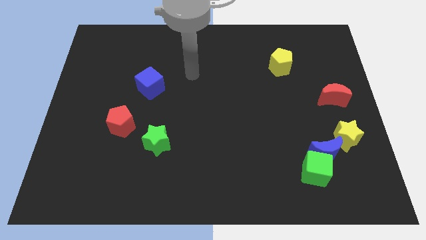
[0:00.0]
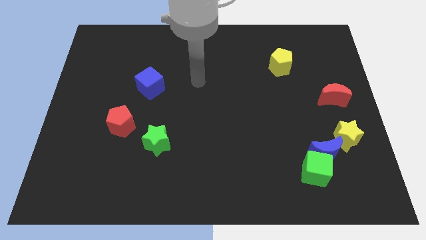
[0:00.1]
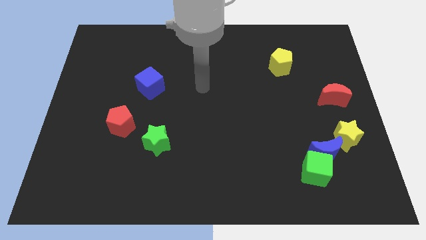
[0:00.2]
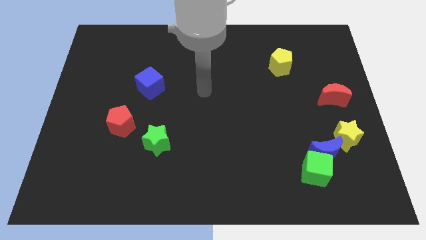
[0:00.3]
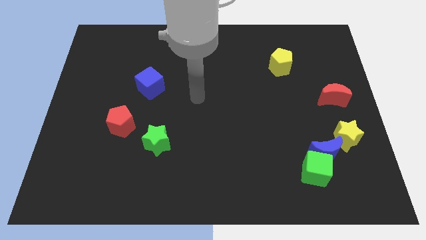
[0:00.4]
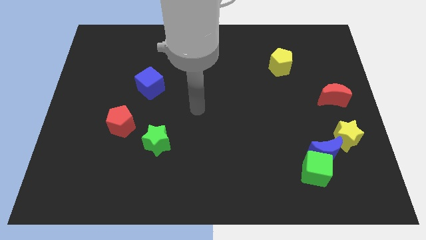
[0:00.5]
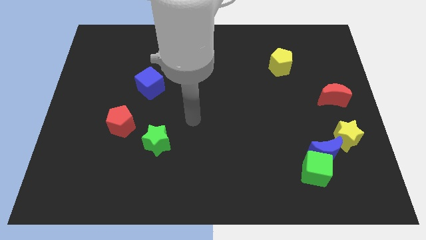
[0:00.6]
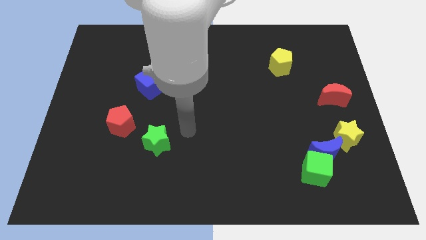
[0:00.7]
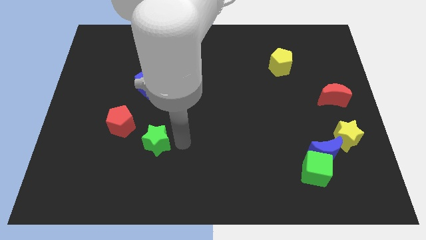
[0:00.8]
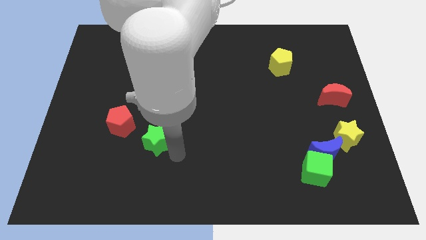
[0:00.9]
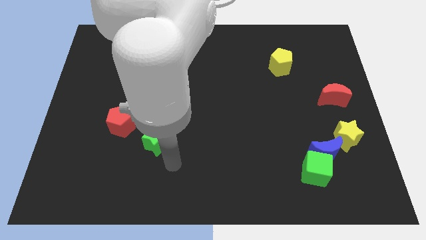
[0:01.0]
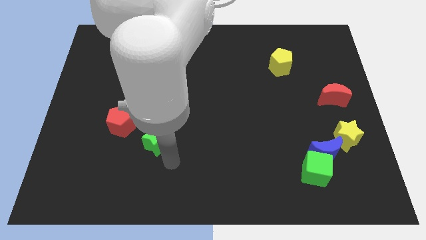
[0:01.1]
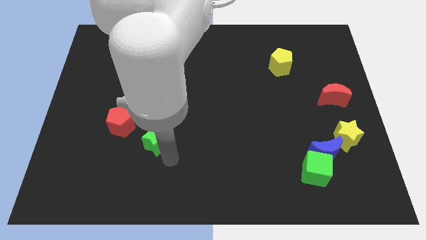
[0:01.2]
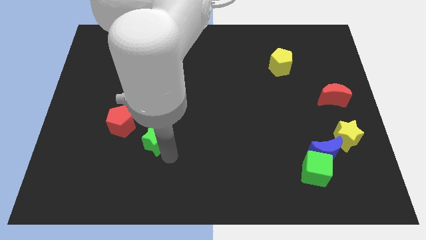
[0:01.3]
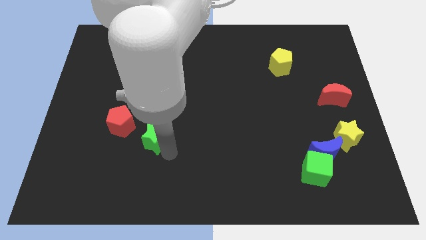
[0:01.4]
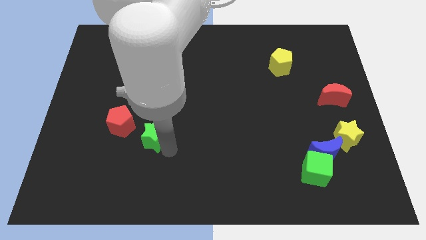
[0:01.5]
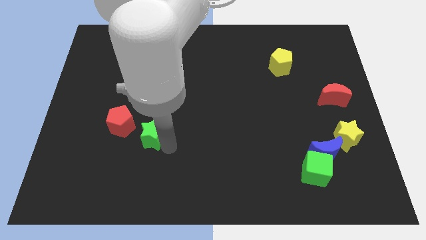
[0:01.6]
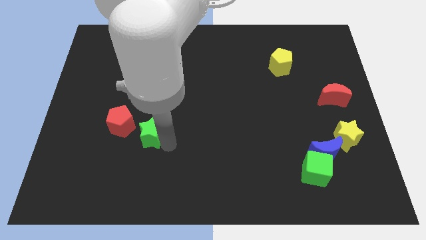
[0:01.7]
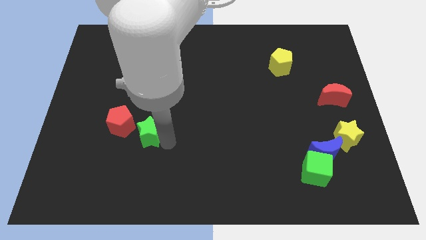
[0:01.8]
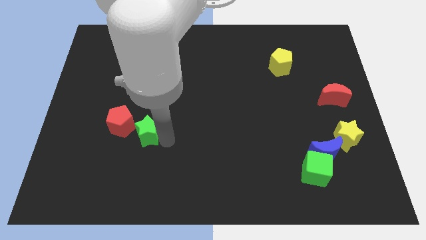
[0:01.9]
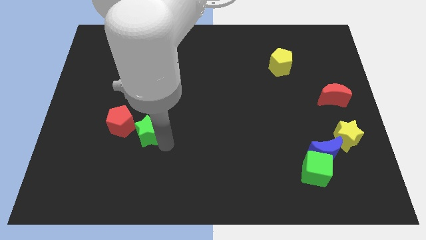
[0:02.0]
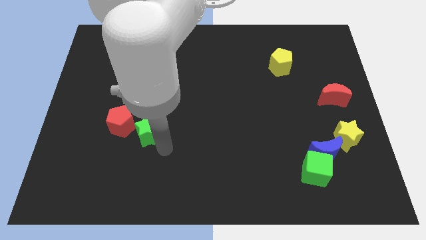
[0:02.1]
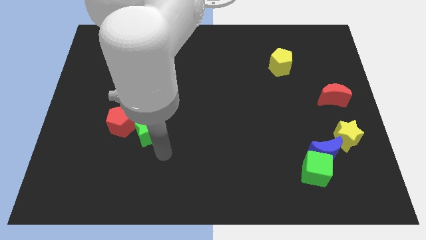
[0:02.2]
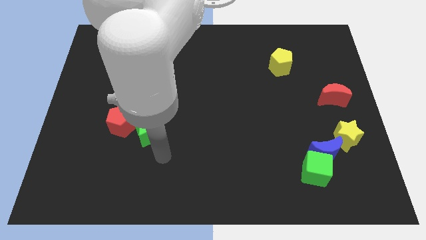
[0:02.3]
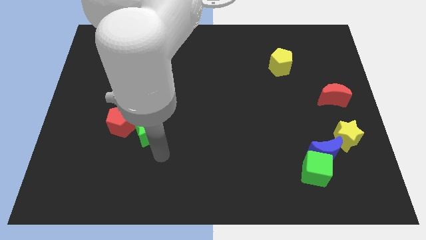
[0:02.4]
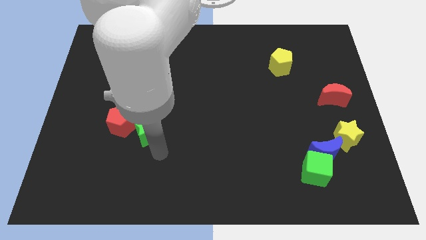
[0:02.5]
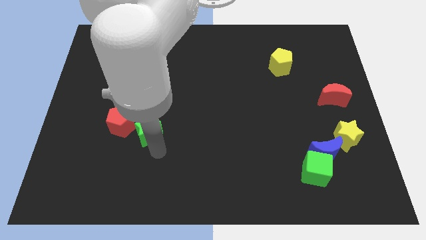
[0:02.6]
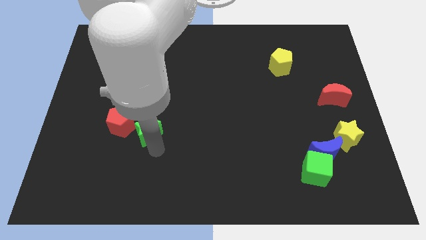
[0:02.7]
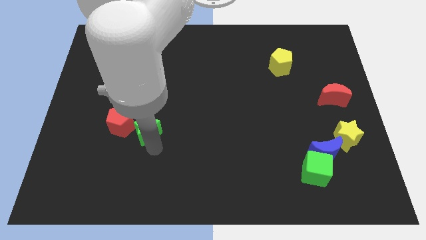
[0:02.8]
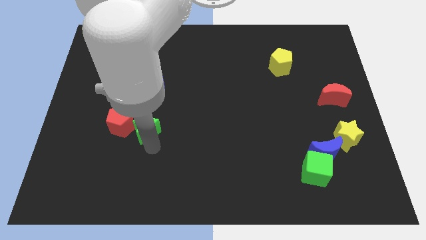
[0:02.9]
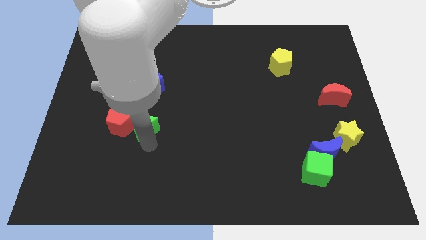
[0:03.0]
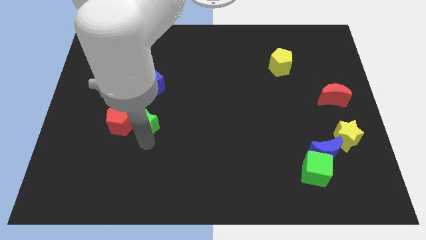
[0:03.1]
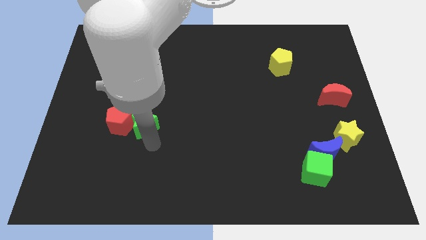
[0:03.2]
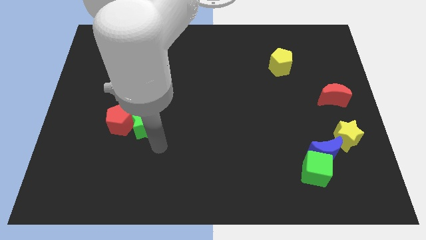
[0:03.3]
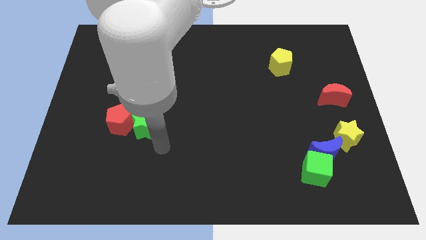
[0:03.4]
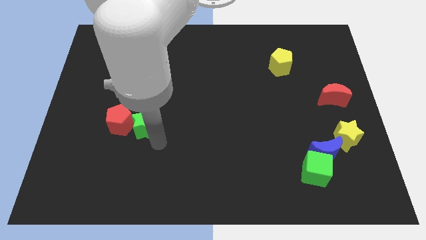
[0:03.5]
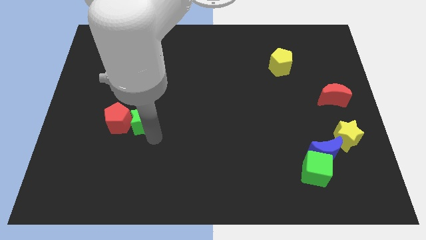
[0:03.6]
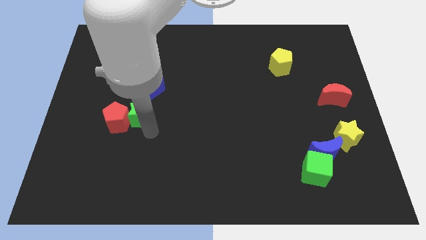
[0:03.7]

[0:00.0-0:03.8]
slightly push the green star upwards and left

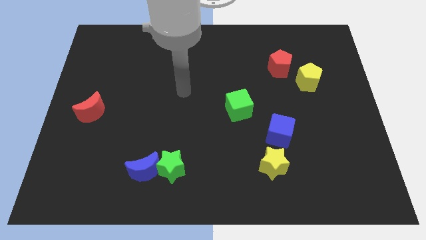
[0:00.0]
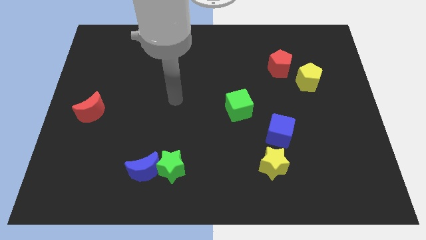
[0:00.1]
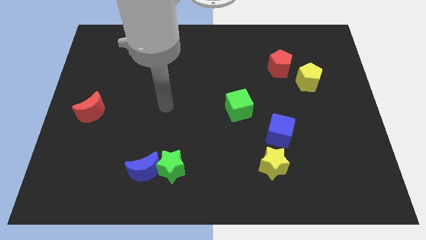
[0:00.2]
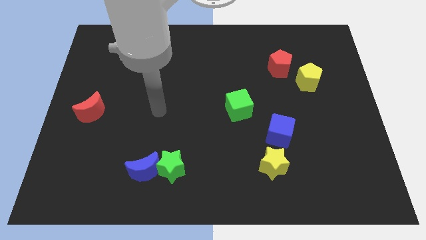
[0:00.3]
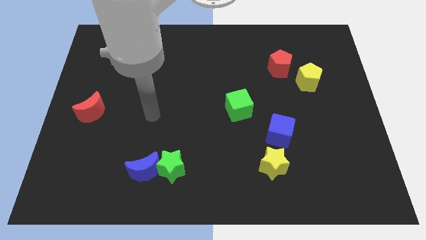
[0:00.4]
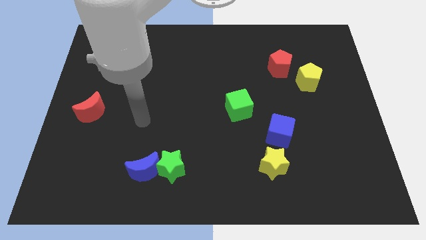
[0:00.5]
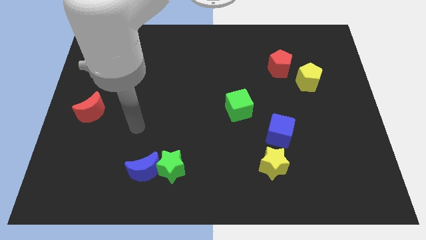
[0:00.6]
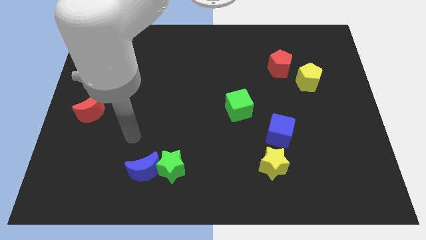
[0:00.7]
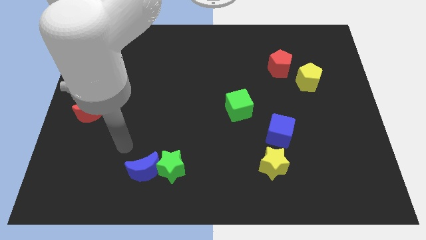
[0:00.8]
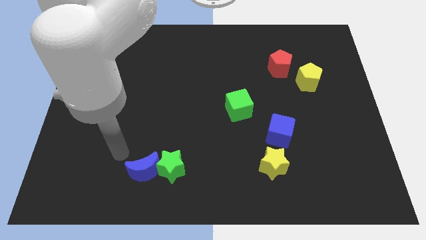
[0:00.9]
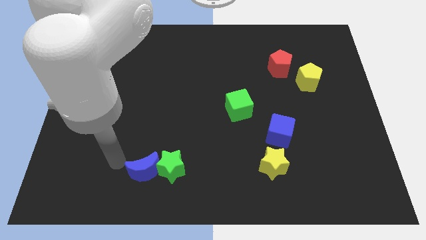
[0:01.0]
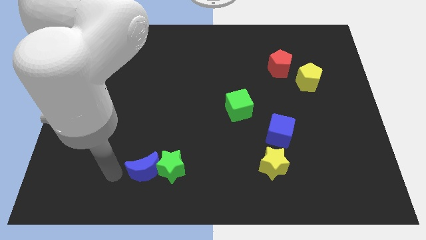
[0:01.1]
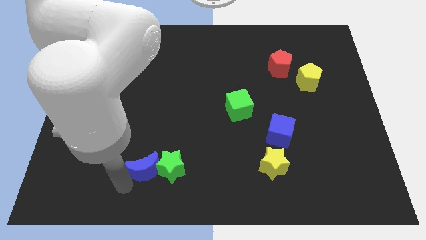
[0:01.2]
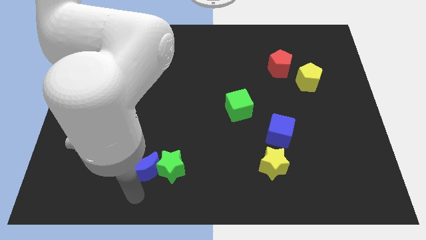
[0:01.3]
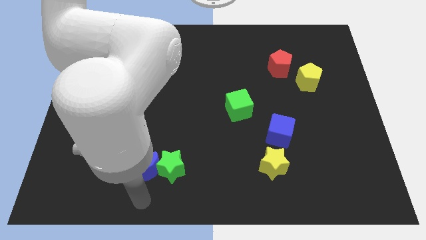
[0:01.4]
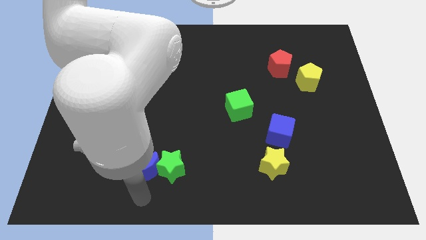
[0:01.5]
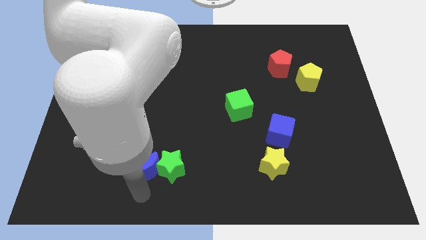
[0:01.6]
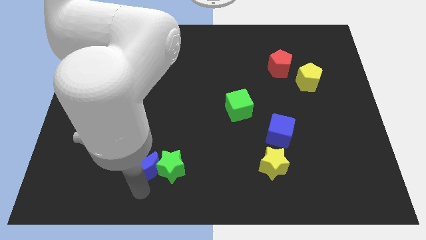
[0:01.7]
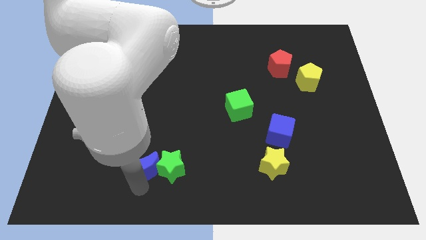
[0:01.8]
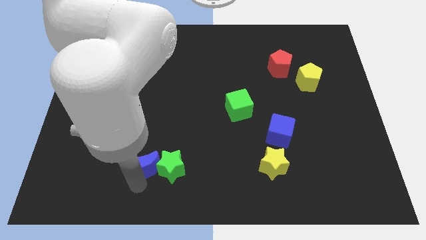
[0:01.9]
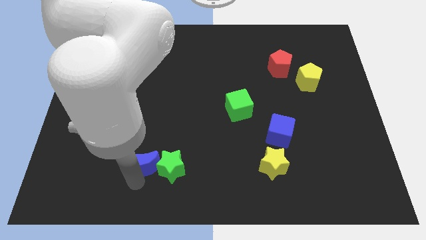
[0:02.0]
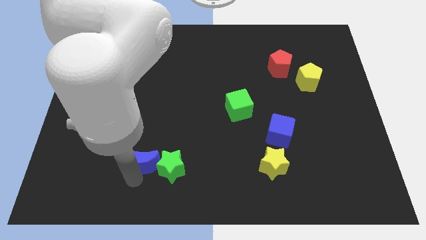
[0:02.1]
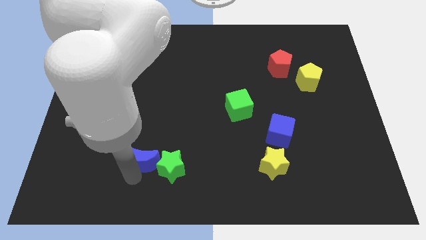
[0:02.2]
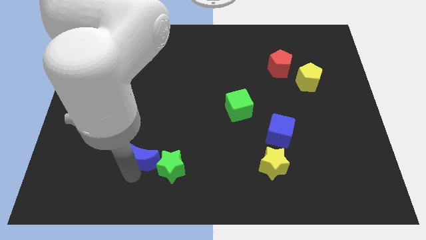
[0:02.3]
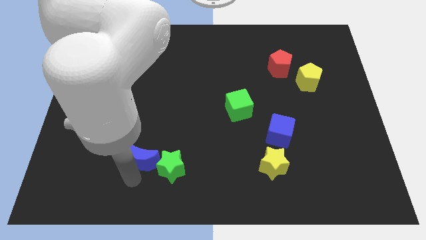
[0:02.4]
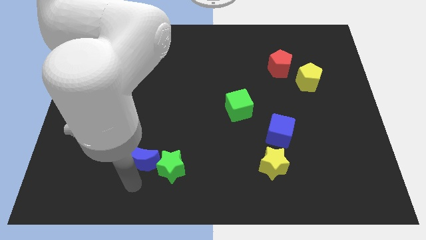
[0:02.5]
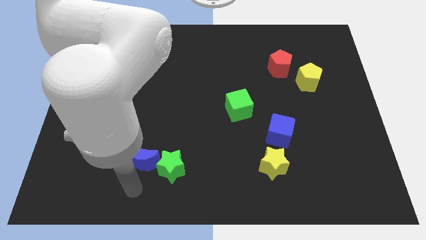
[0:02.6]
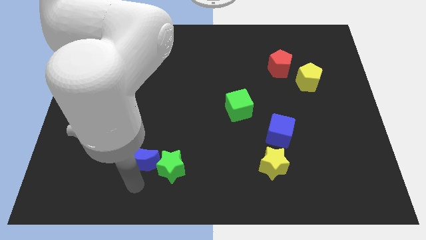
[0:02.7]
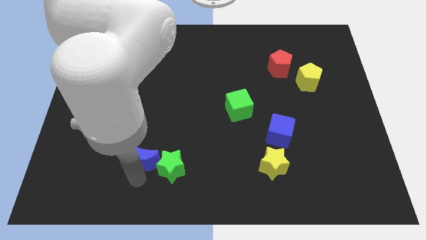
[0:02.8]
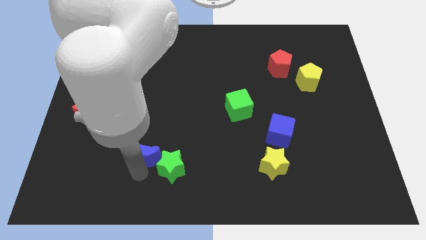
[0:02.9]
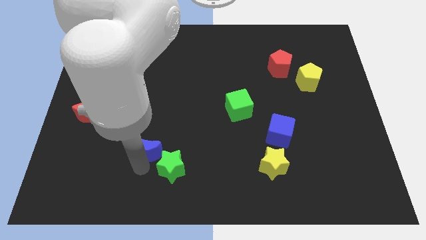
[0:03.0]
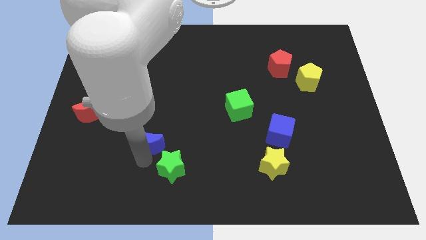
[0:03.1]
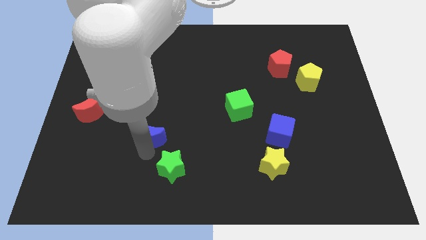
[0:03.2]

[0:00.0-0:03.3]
slide the blue moon a little upwards

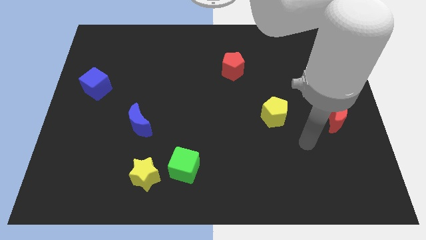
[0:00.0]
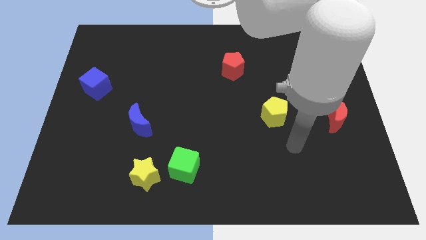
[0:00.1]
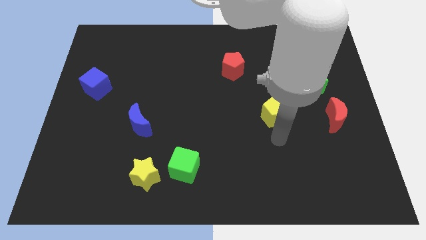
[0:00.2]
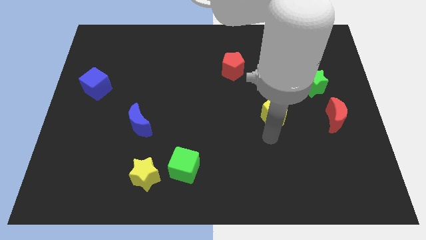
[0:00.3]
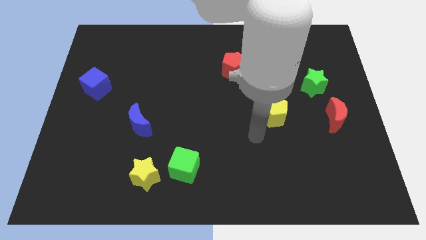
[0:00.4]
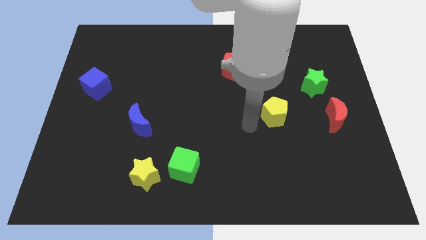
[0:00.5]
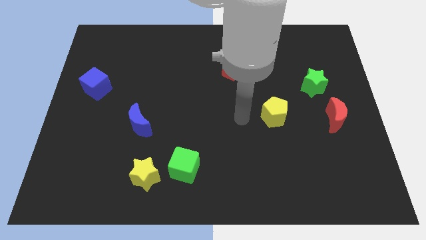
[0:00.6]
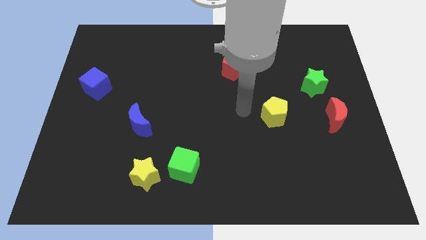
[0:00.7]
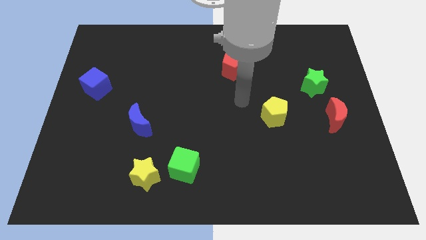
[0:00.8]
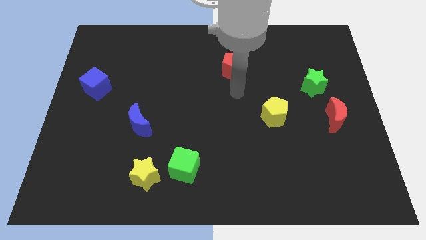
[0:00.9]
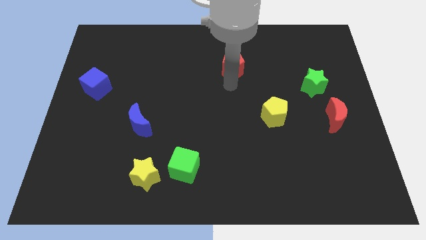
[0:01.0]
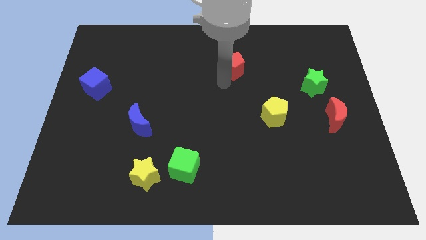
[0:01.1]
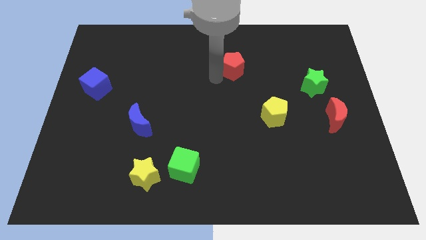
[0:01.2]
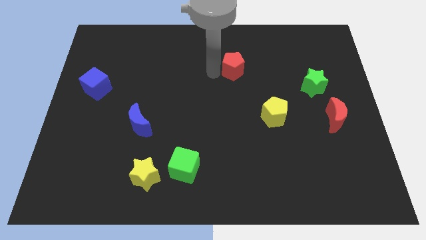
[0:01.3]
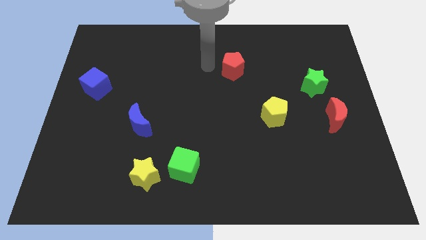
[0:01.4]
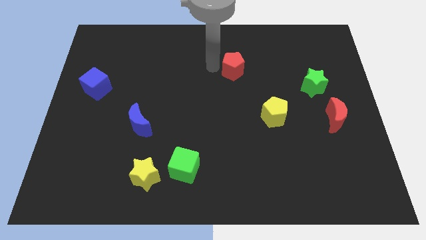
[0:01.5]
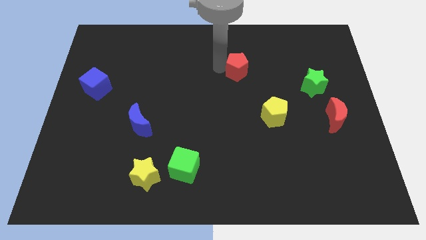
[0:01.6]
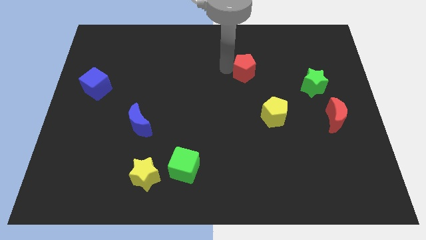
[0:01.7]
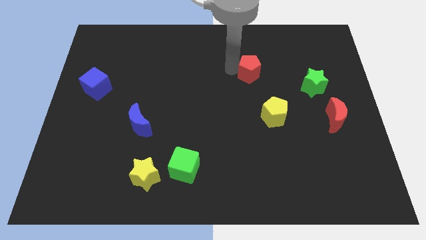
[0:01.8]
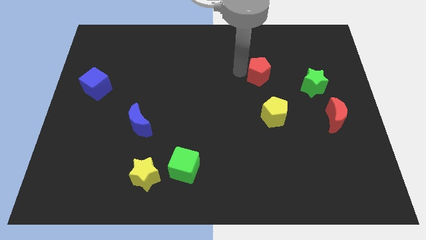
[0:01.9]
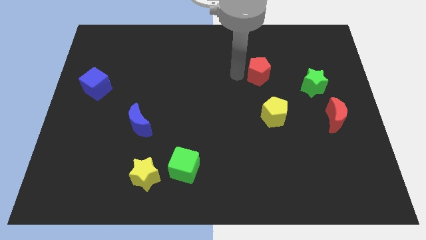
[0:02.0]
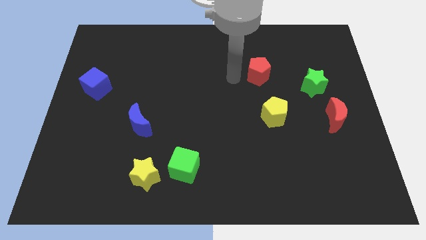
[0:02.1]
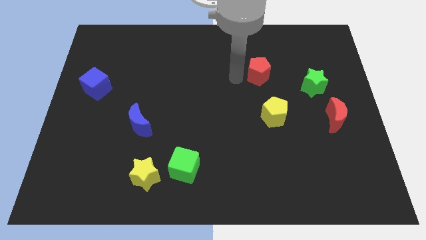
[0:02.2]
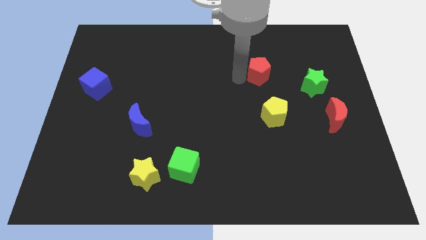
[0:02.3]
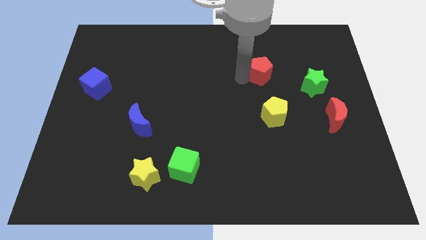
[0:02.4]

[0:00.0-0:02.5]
push the red pentagon slightly right
